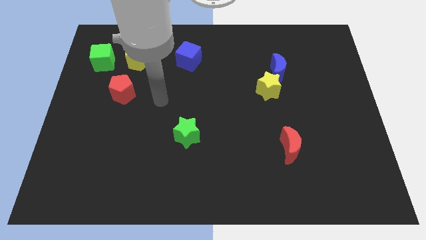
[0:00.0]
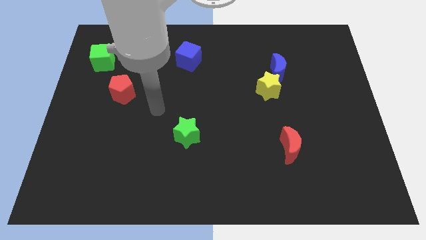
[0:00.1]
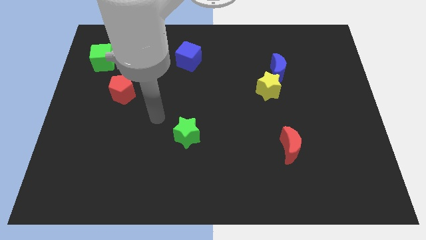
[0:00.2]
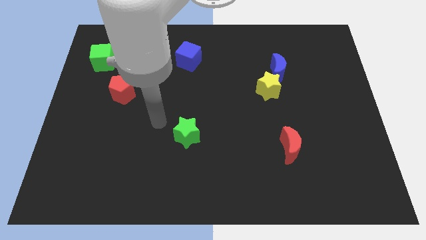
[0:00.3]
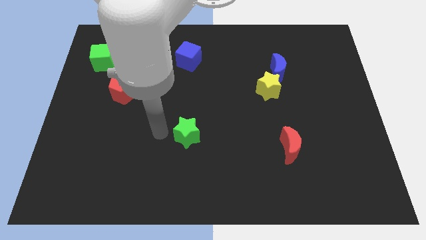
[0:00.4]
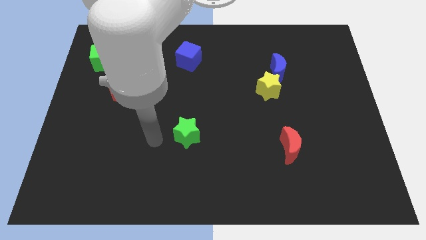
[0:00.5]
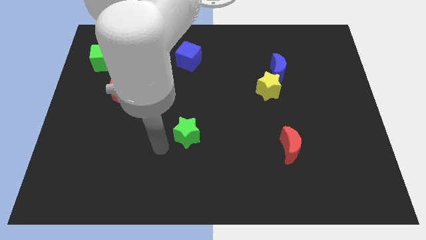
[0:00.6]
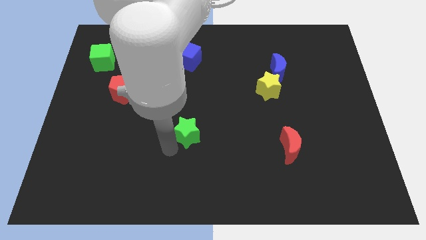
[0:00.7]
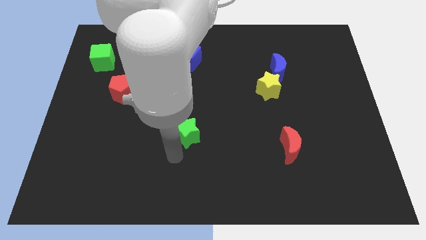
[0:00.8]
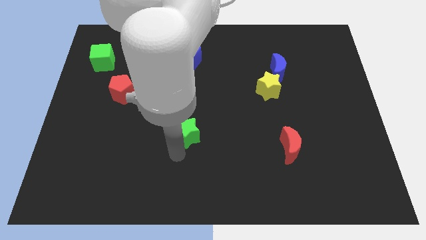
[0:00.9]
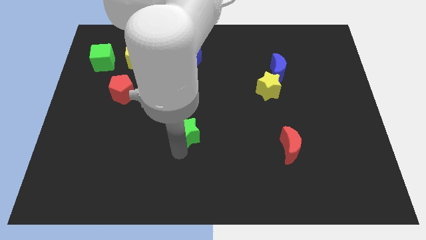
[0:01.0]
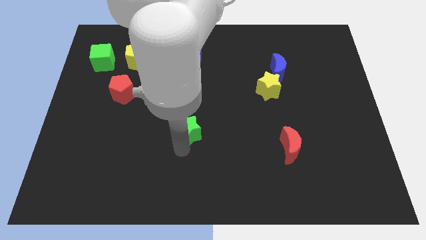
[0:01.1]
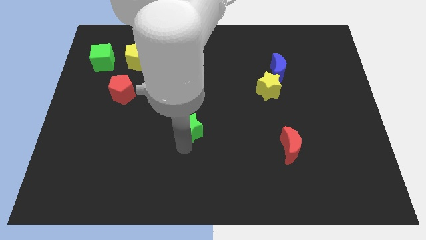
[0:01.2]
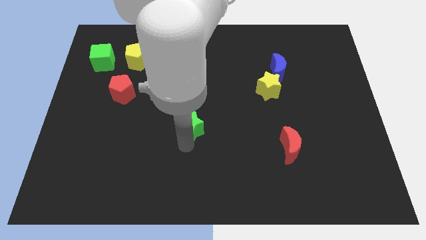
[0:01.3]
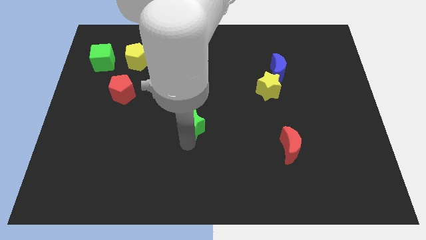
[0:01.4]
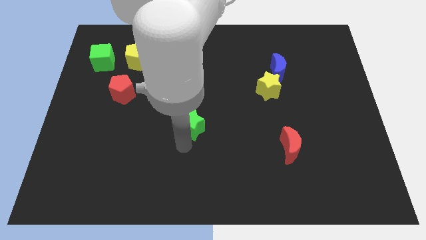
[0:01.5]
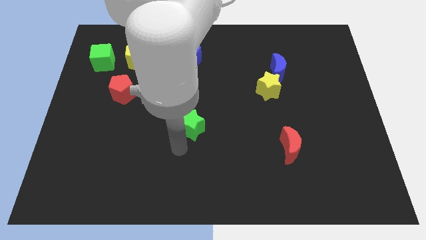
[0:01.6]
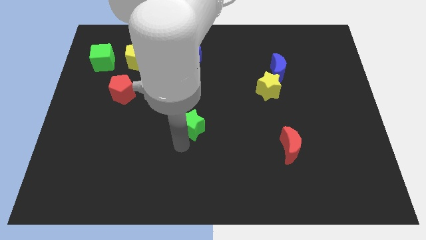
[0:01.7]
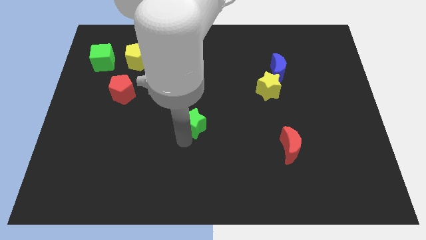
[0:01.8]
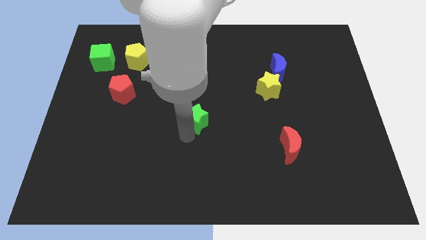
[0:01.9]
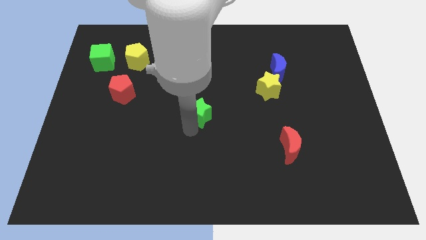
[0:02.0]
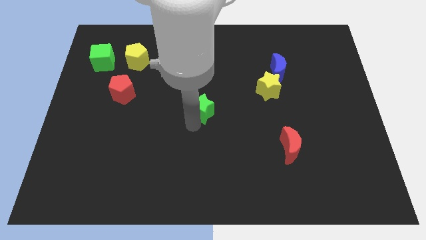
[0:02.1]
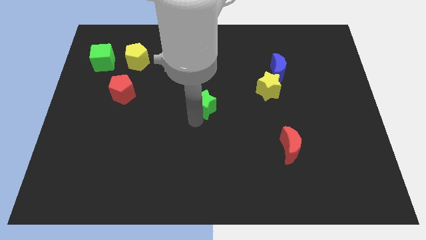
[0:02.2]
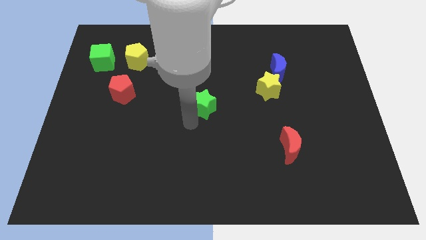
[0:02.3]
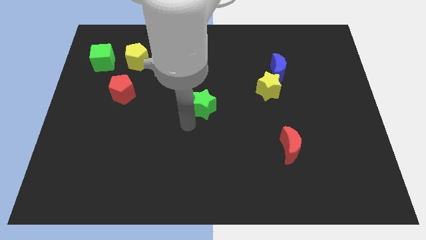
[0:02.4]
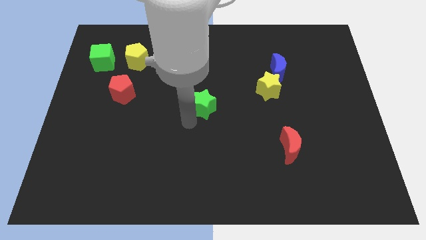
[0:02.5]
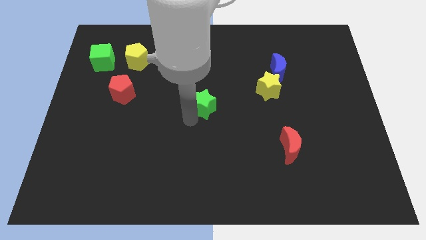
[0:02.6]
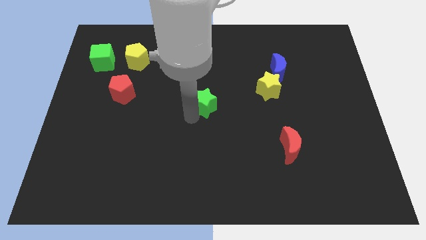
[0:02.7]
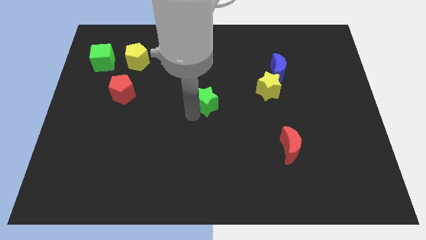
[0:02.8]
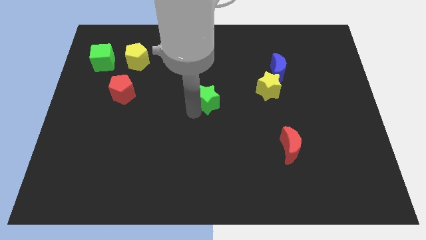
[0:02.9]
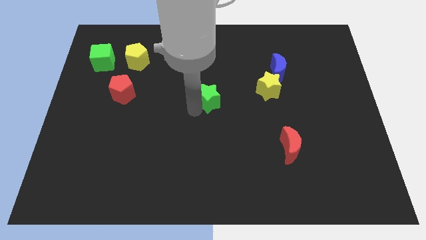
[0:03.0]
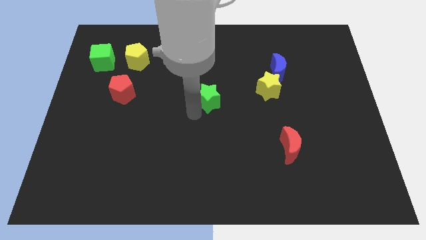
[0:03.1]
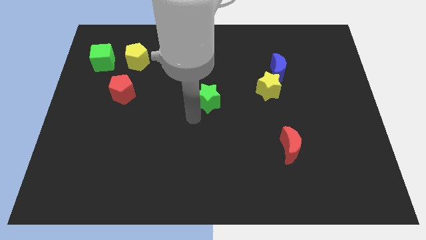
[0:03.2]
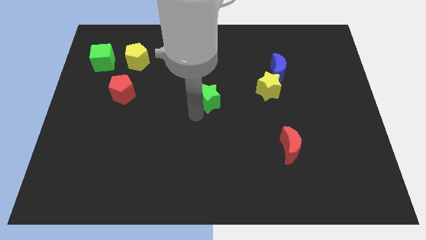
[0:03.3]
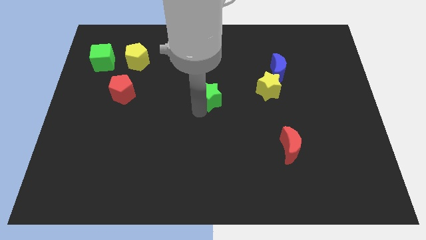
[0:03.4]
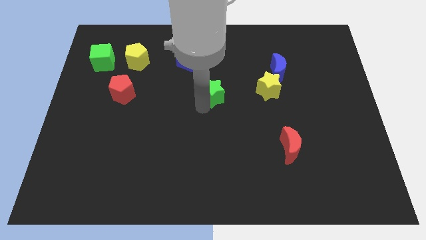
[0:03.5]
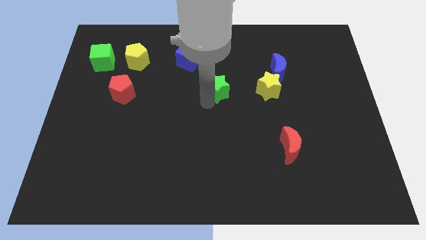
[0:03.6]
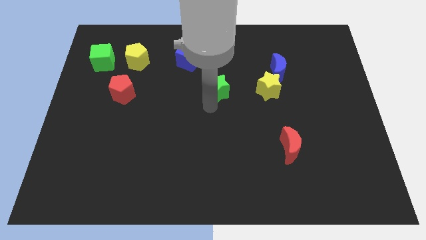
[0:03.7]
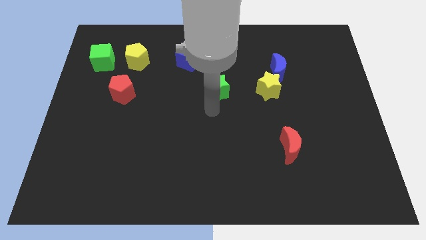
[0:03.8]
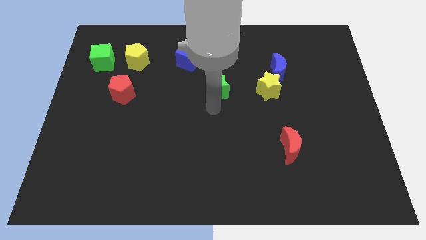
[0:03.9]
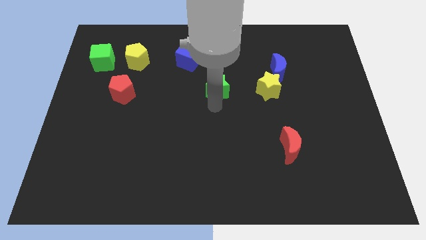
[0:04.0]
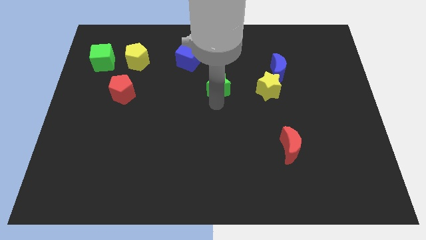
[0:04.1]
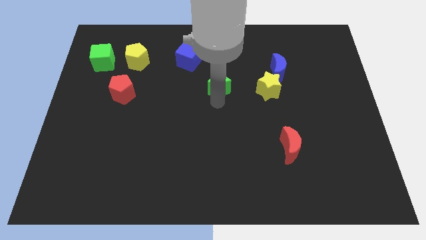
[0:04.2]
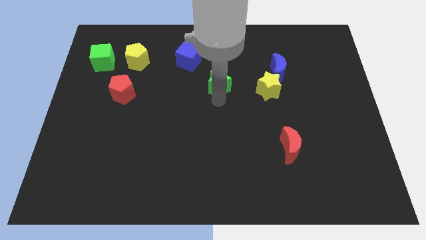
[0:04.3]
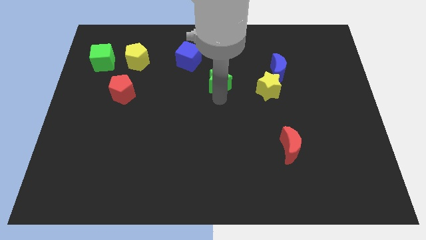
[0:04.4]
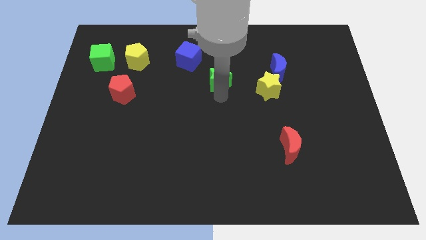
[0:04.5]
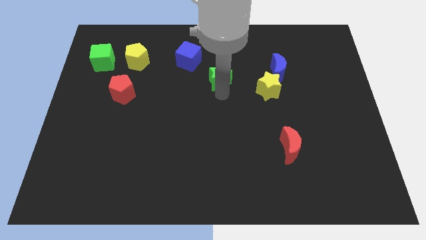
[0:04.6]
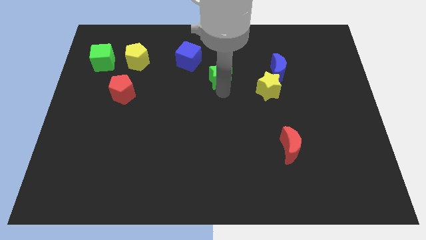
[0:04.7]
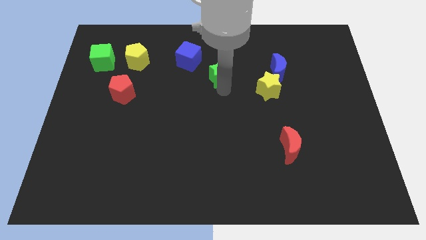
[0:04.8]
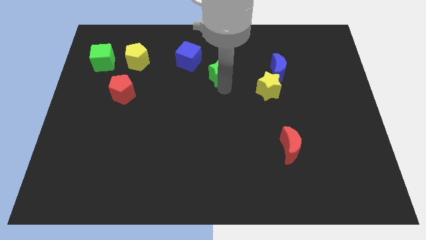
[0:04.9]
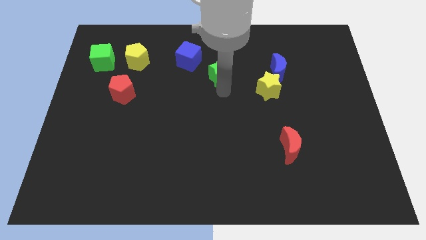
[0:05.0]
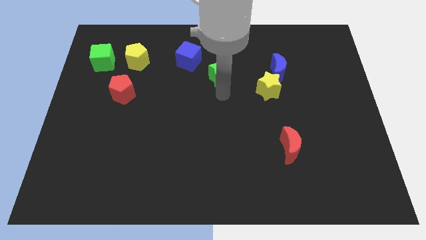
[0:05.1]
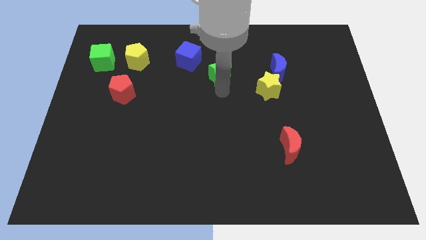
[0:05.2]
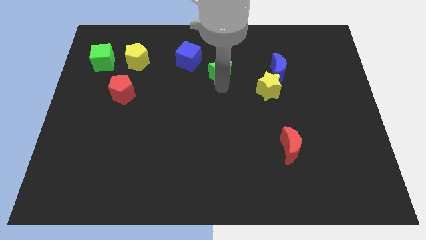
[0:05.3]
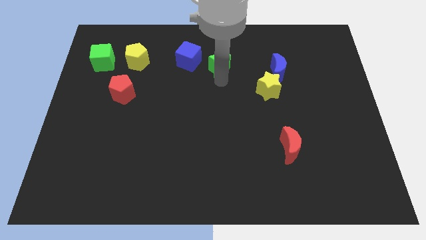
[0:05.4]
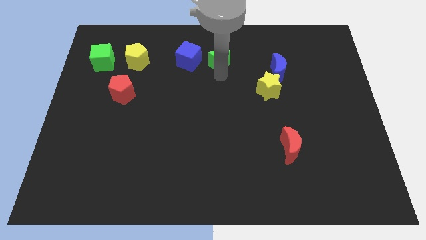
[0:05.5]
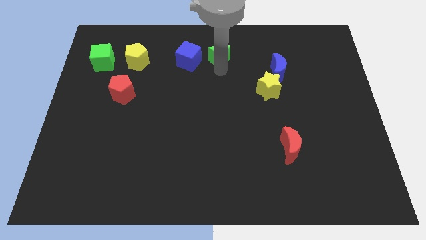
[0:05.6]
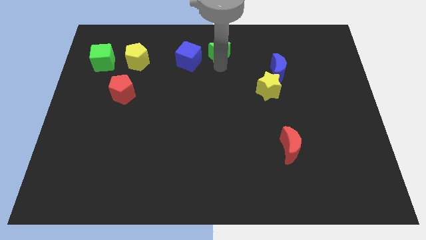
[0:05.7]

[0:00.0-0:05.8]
slide the green star to the towards your base
